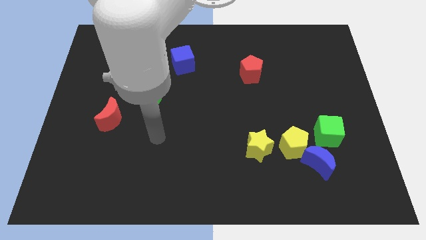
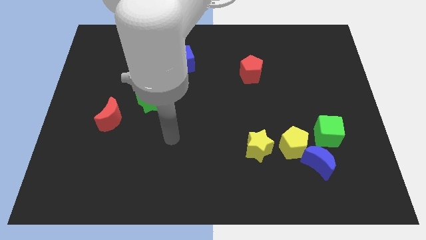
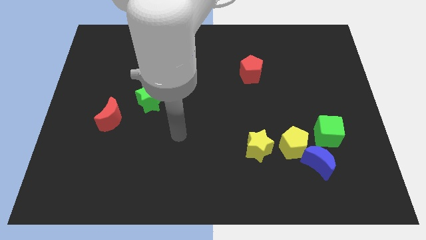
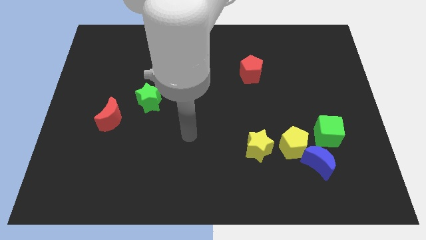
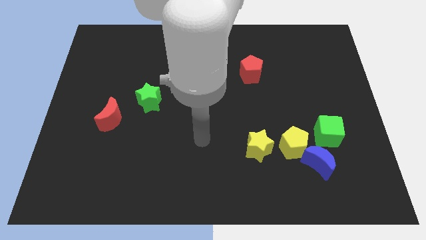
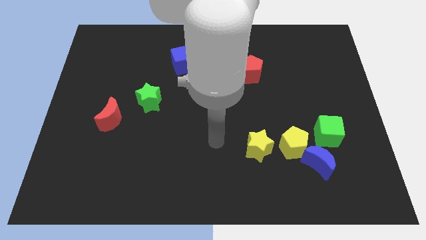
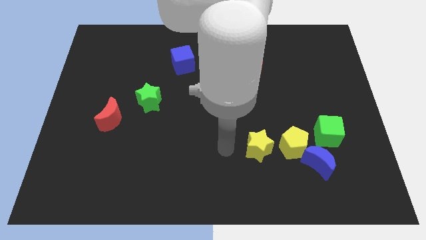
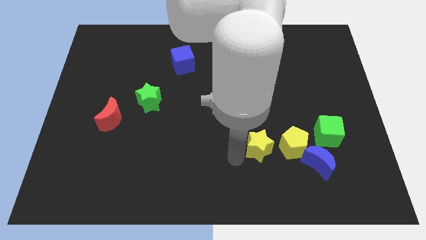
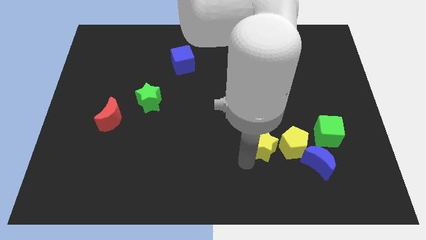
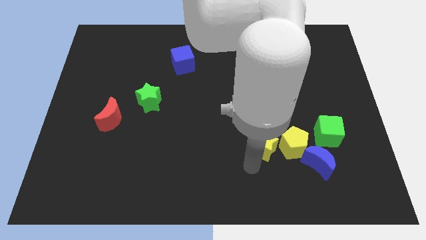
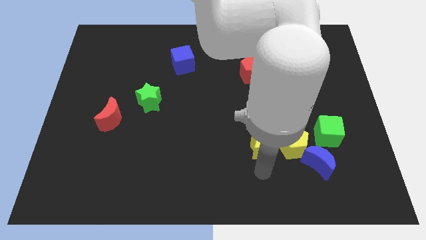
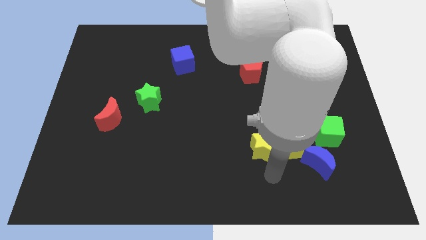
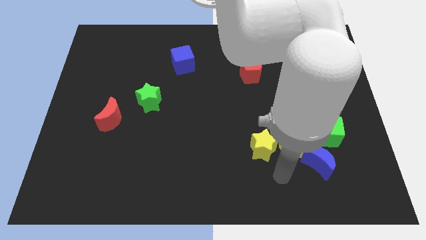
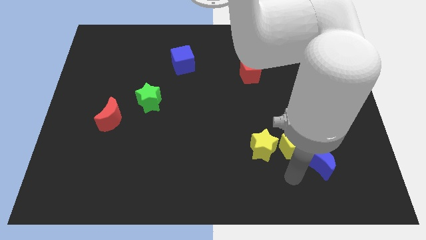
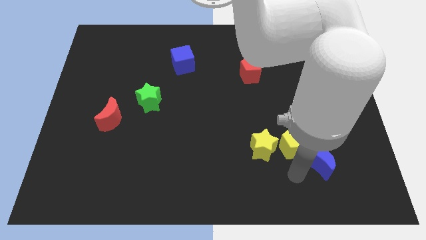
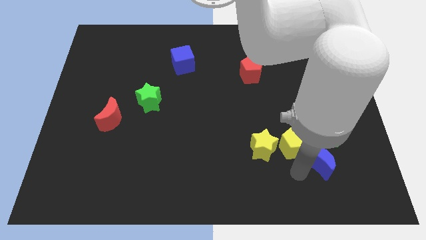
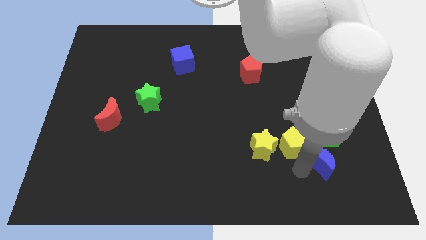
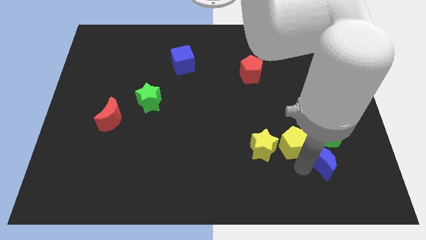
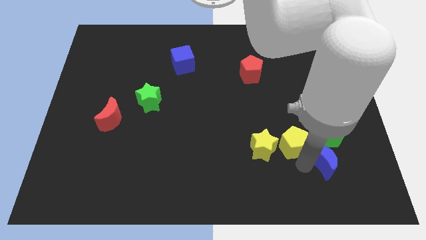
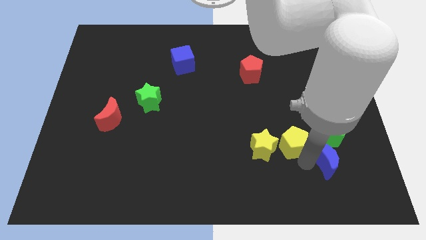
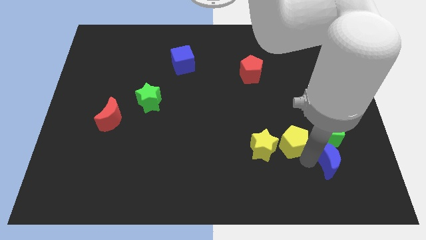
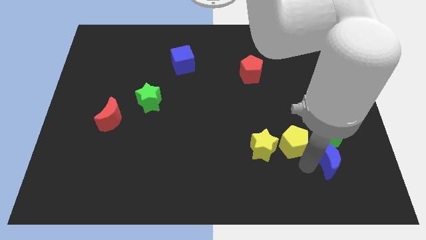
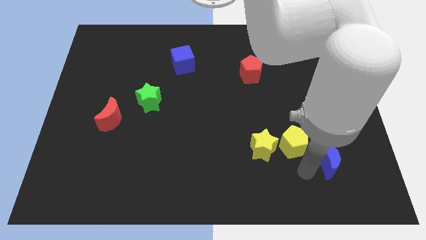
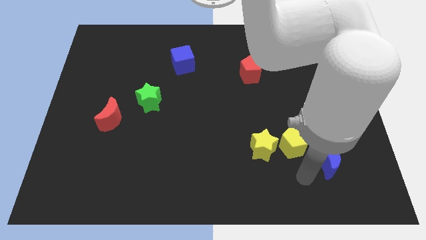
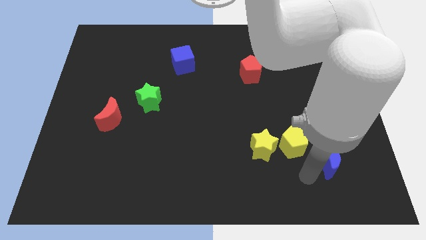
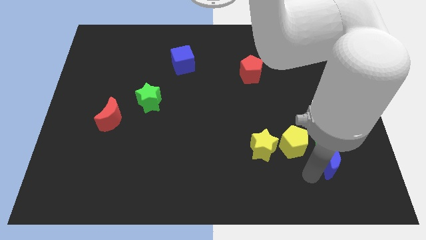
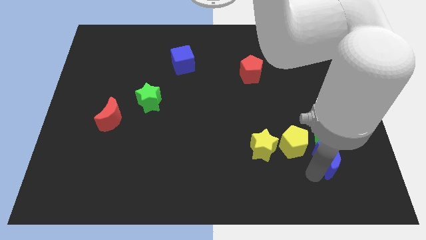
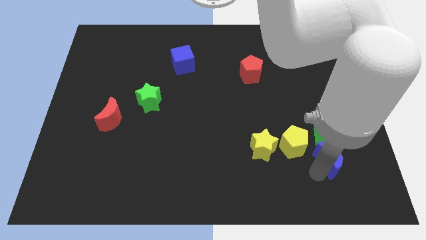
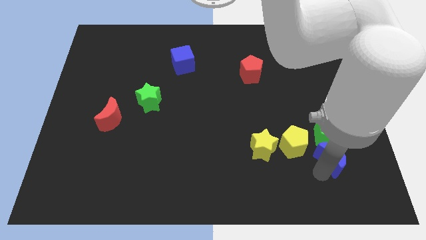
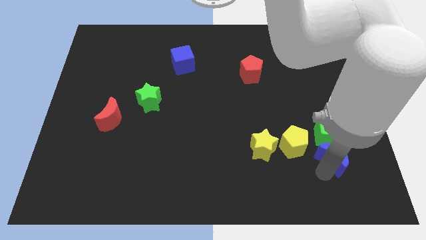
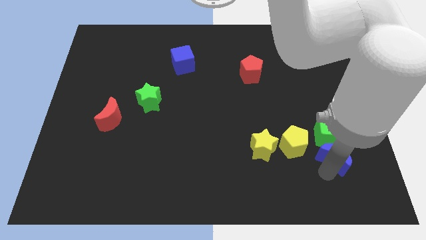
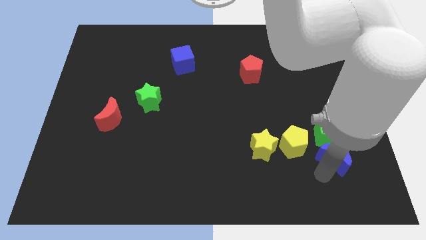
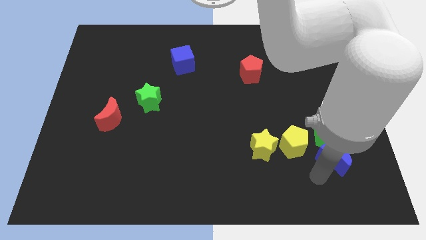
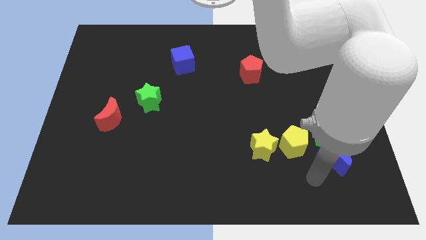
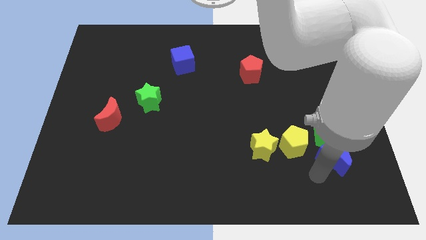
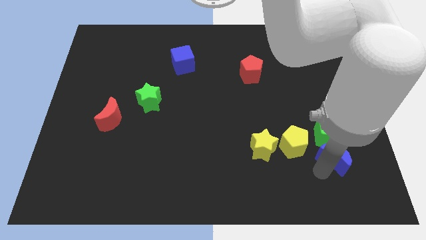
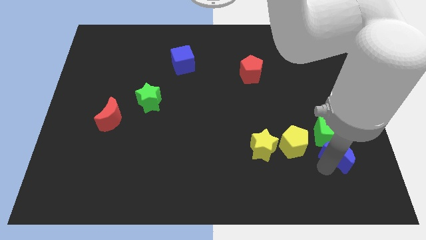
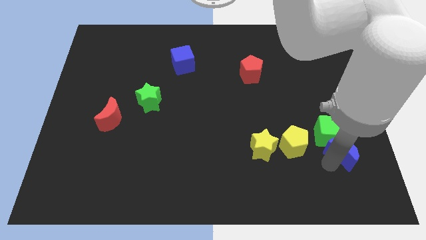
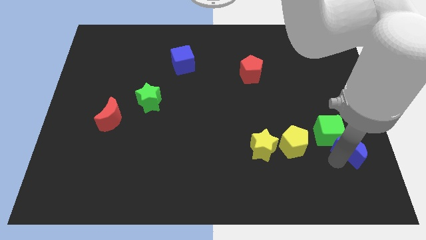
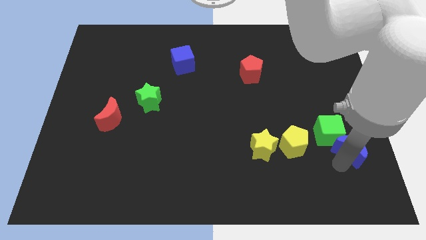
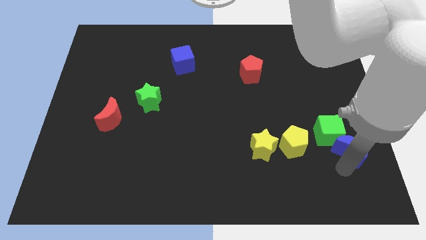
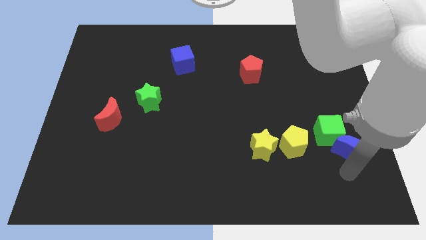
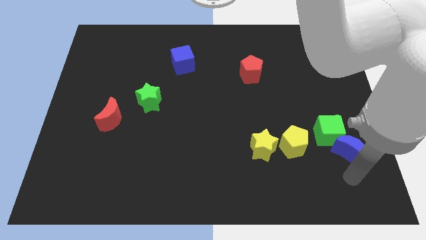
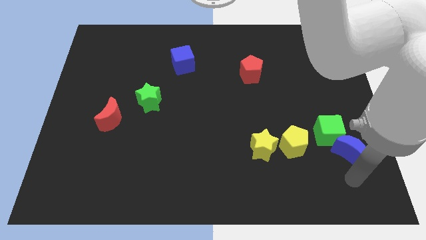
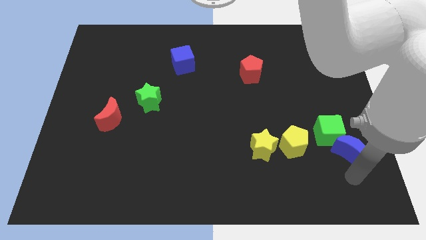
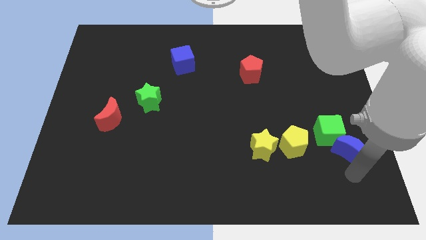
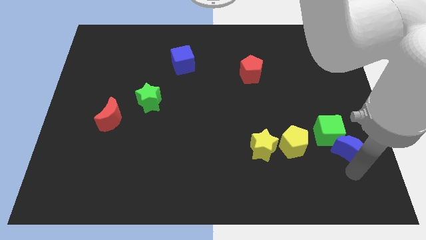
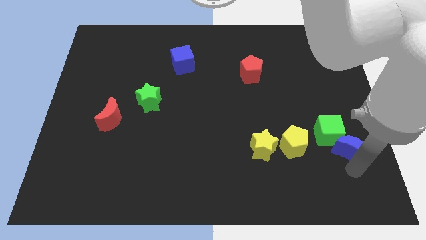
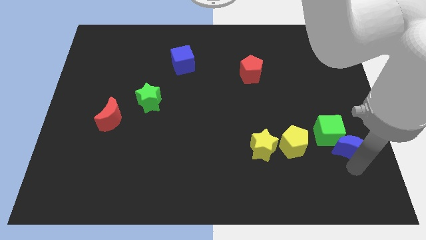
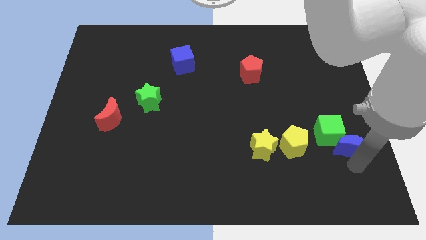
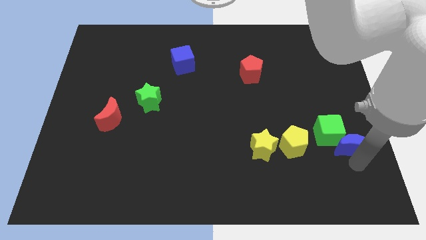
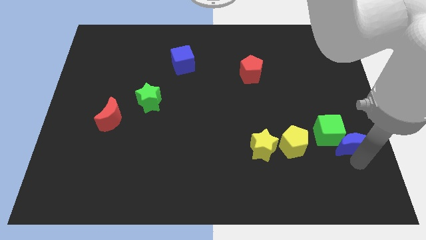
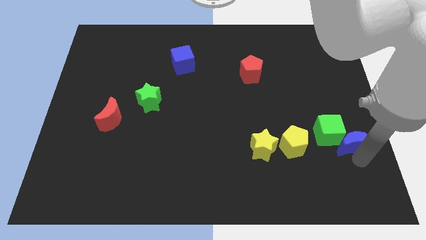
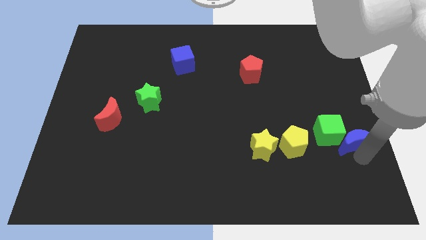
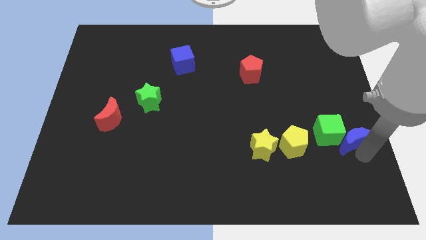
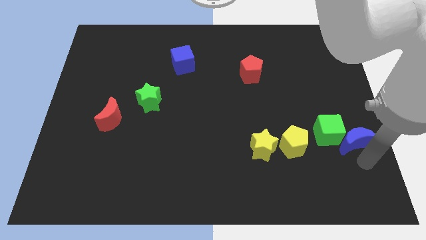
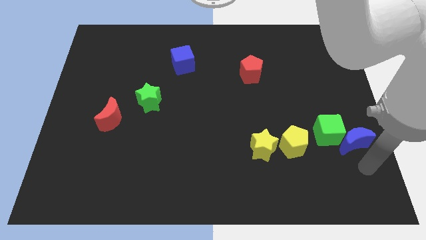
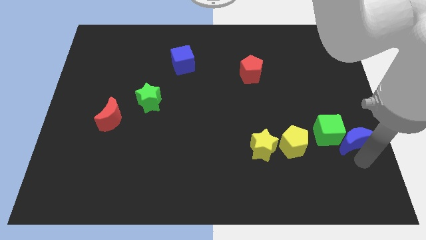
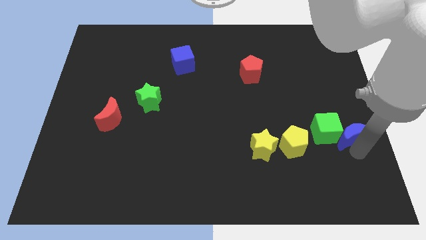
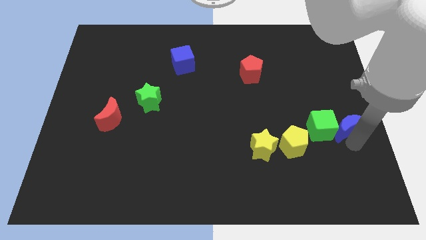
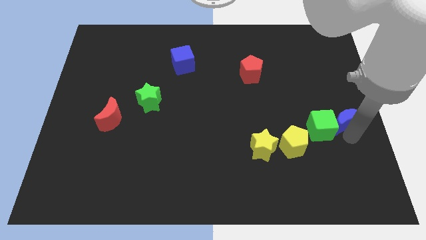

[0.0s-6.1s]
slightly push the blue moon upwards

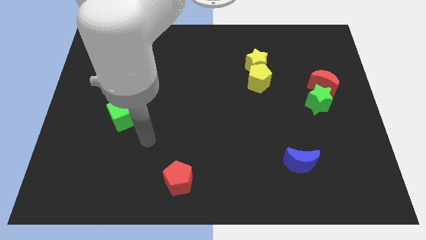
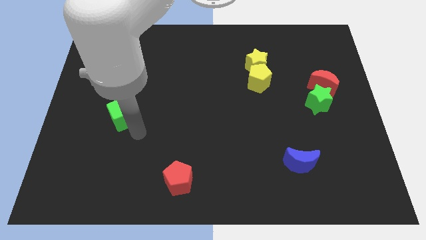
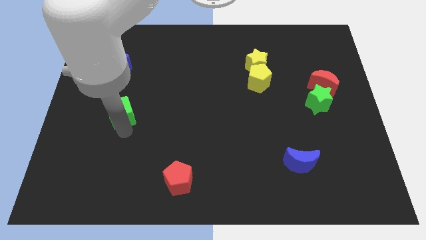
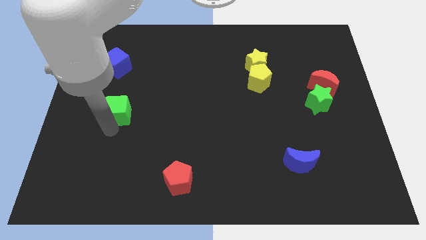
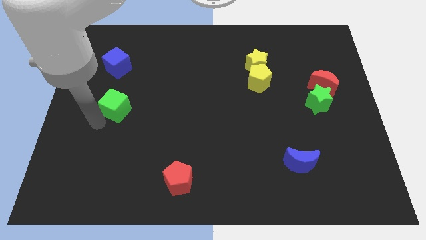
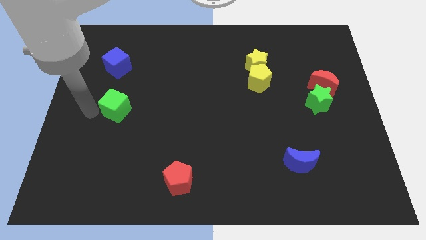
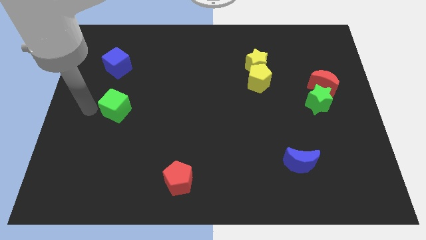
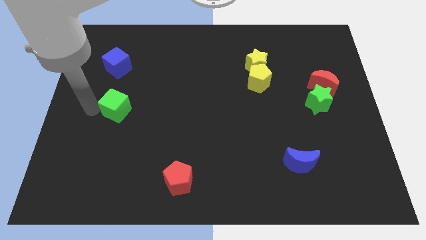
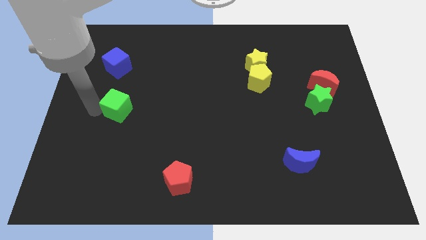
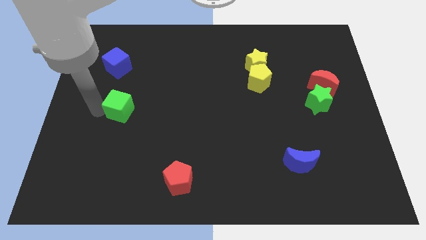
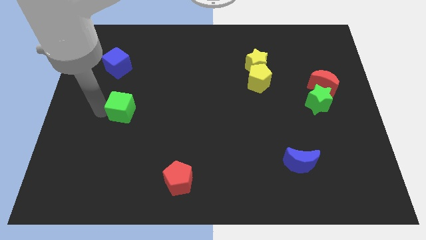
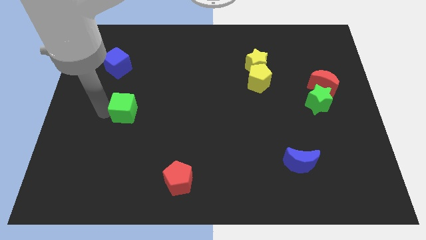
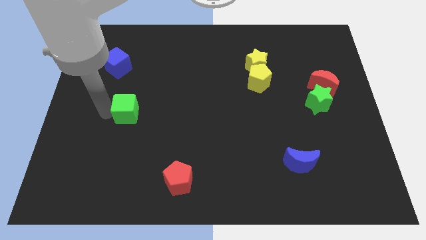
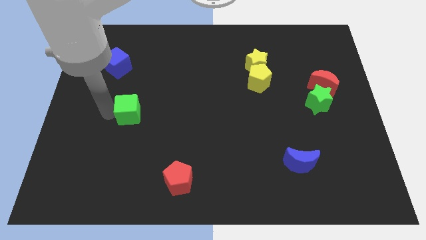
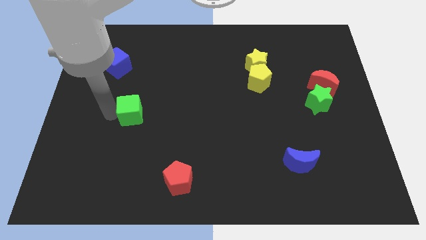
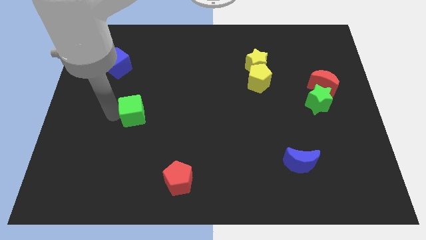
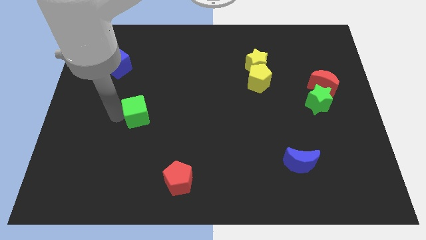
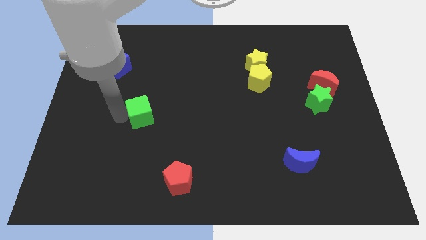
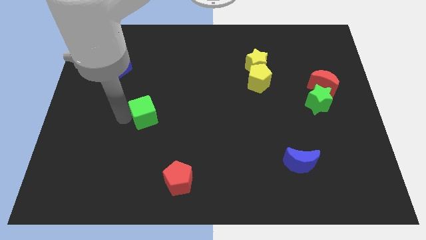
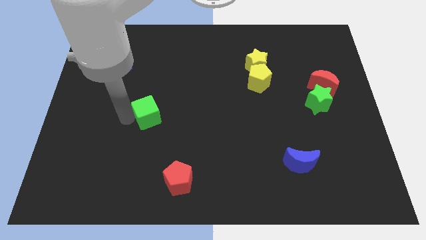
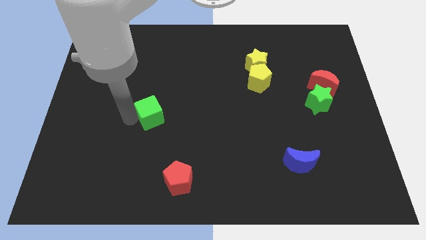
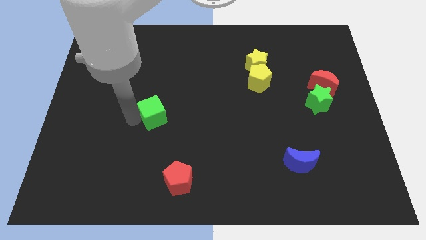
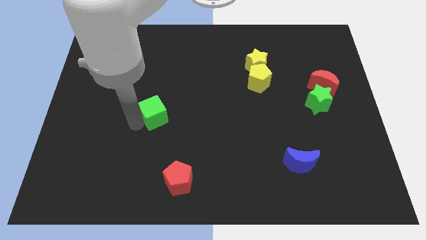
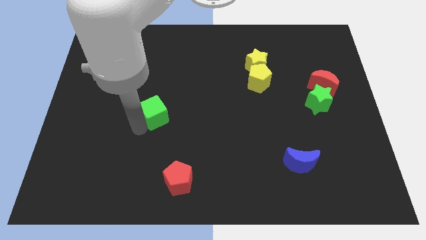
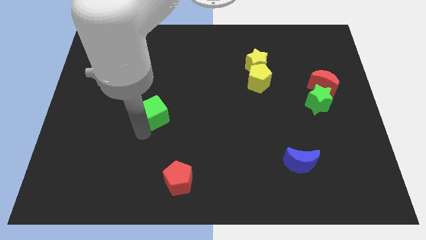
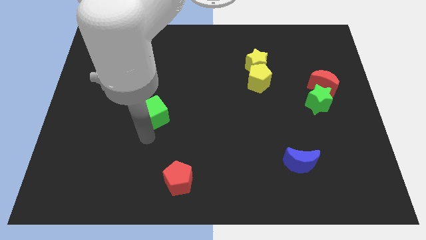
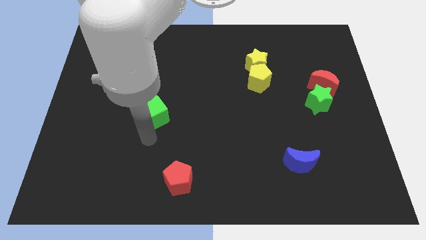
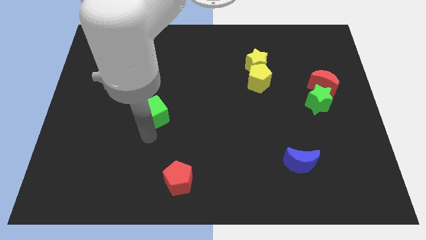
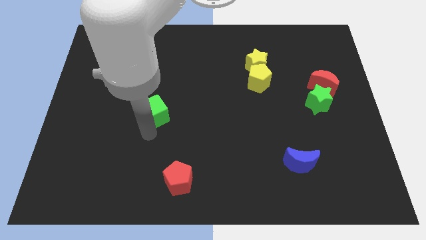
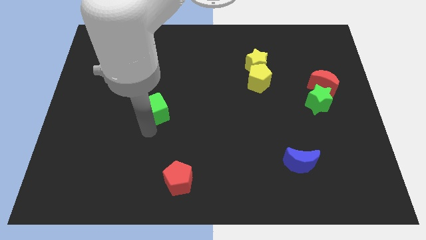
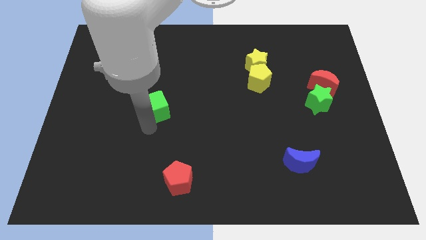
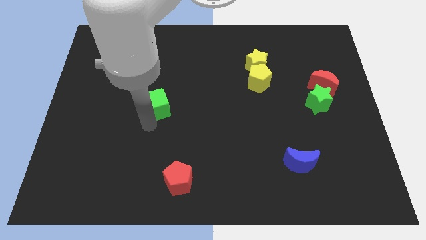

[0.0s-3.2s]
slide the green cube a little bit up and then to the right
